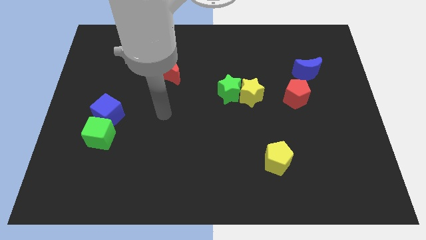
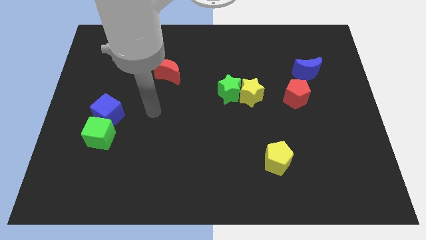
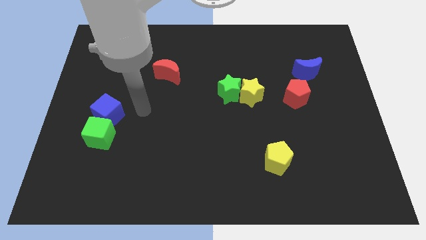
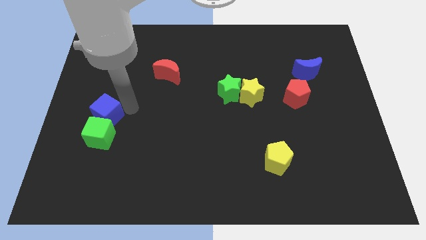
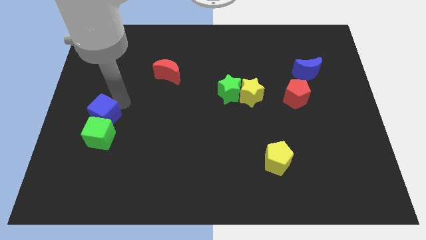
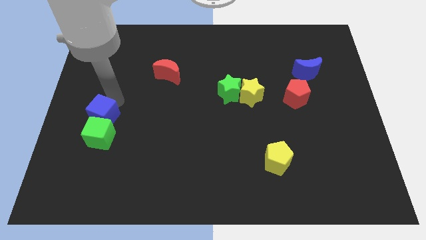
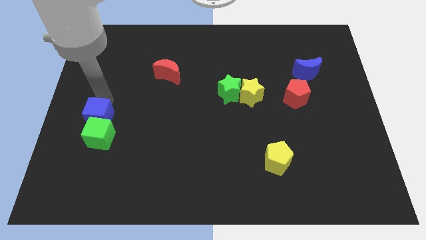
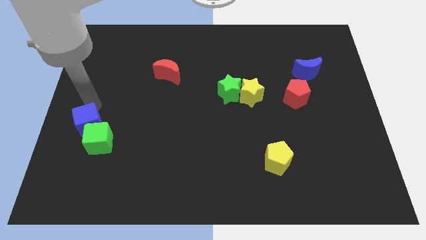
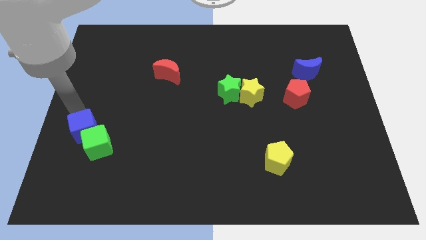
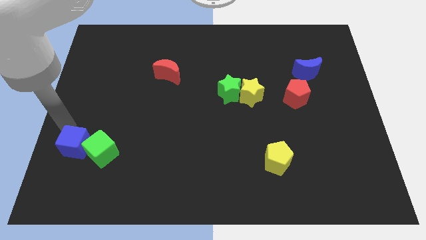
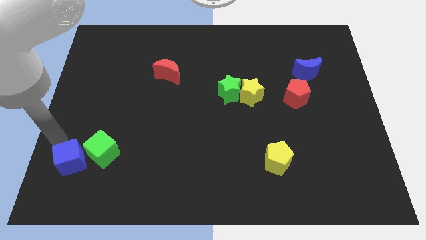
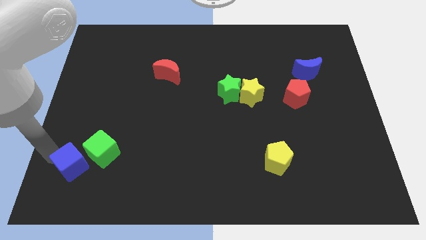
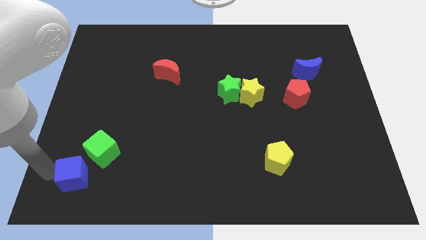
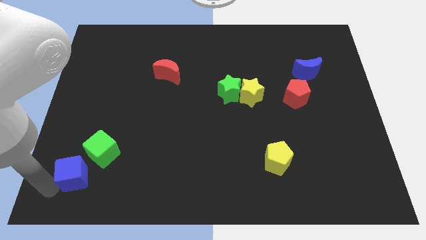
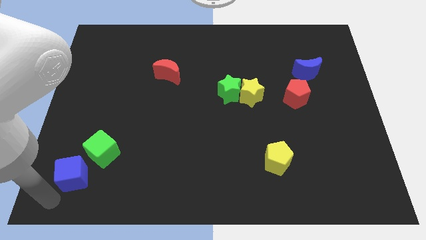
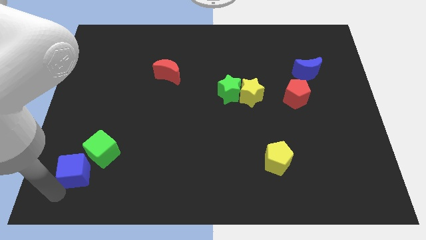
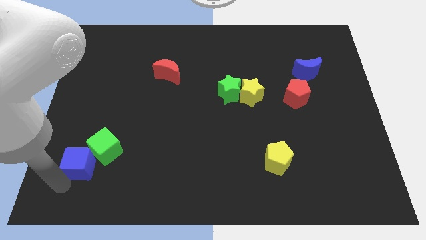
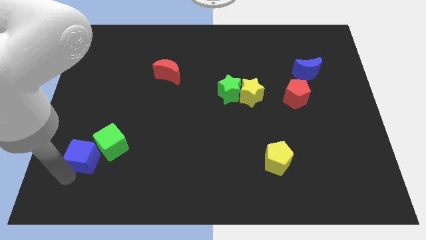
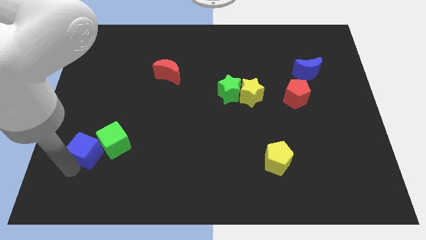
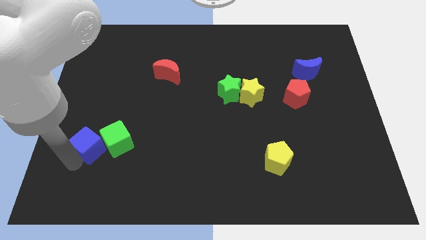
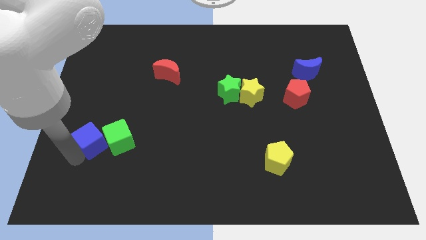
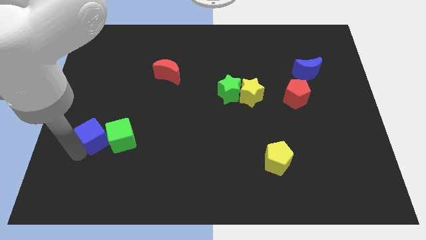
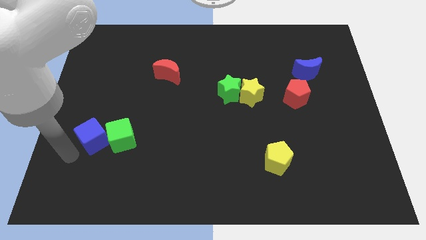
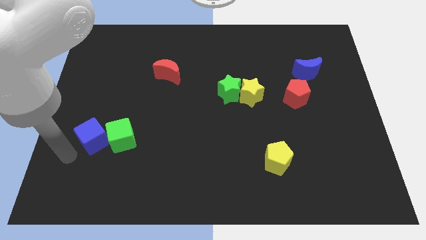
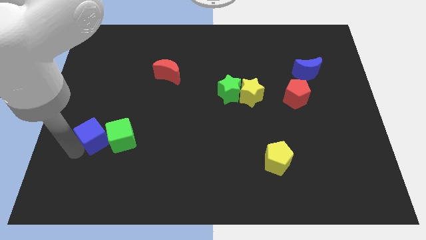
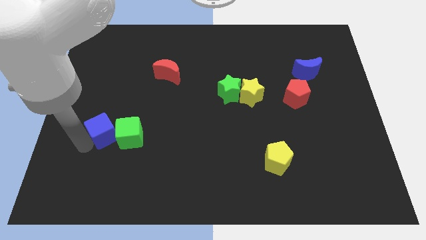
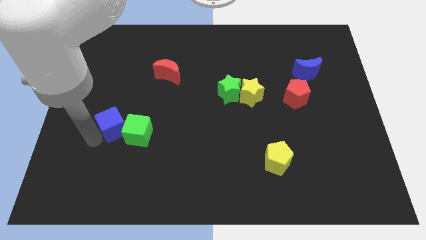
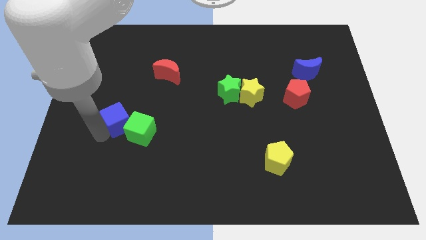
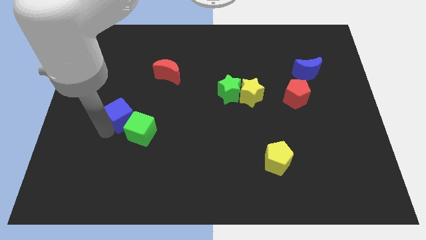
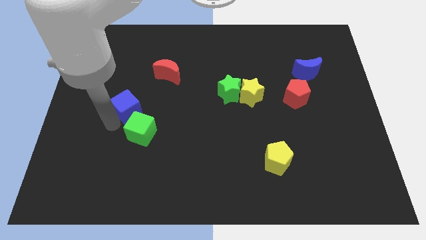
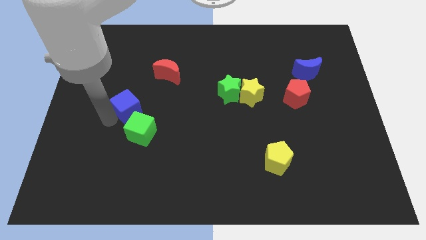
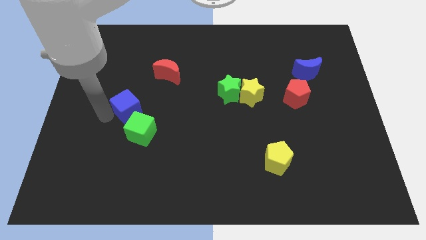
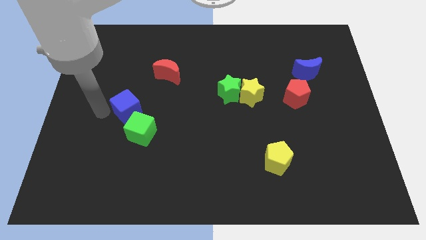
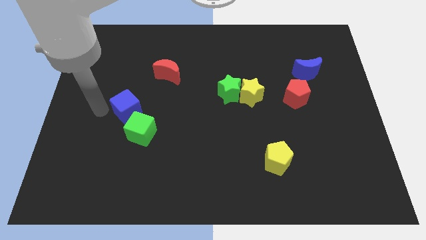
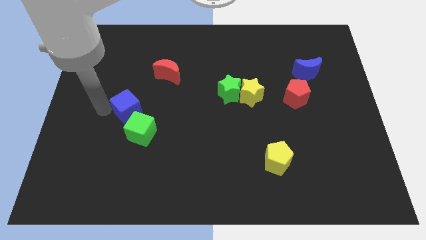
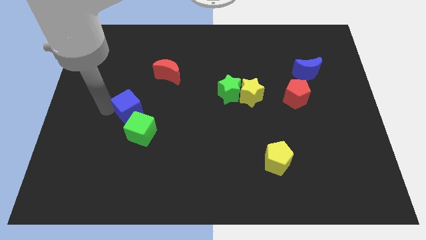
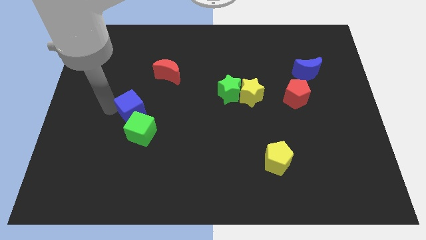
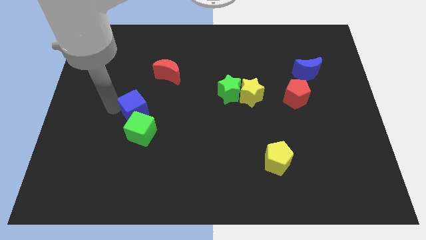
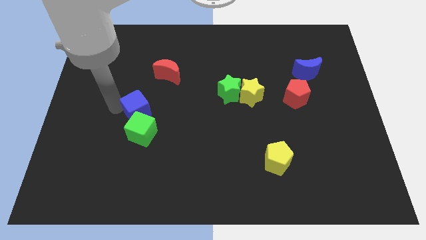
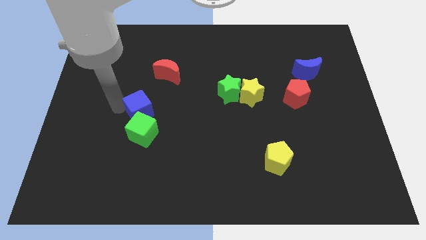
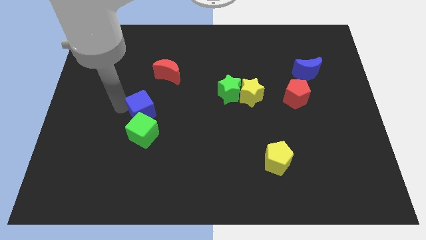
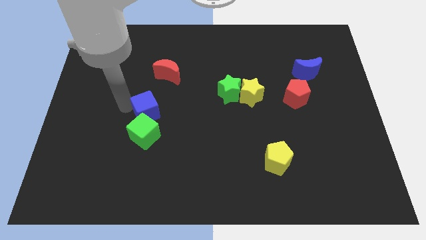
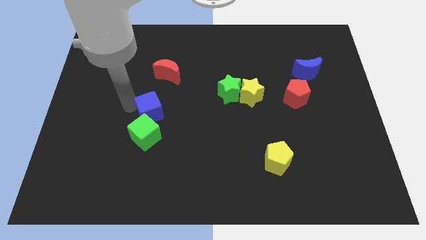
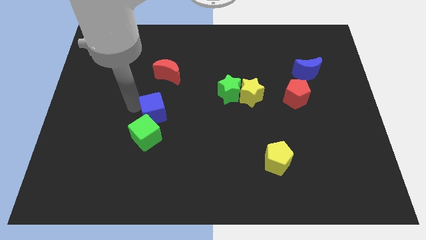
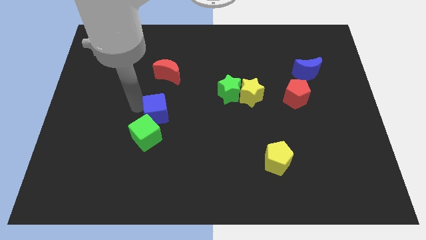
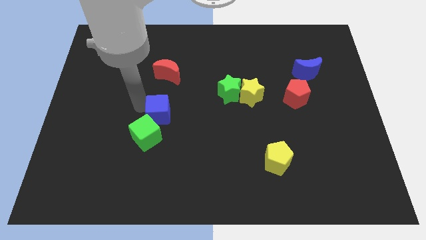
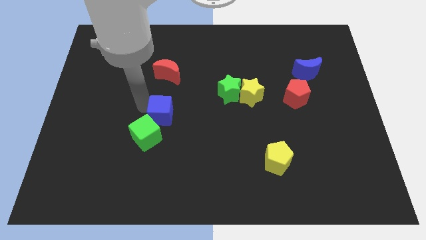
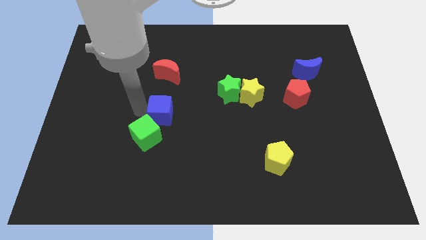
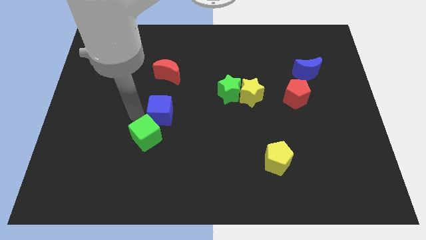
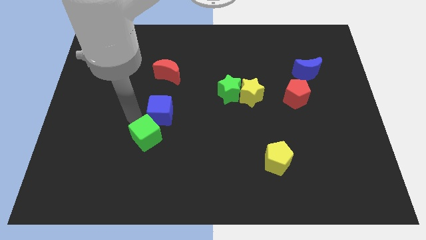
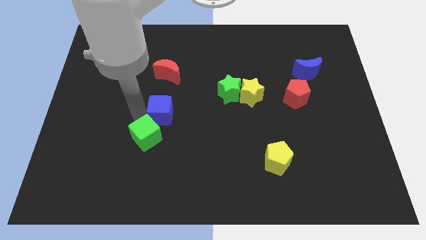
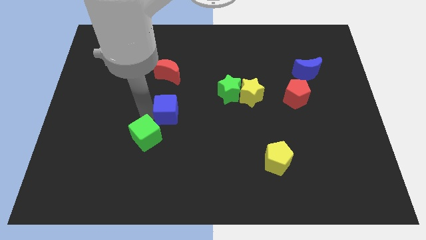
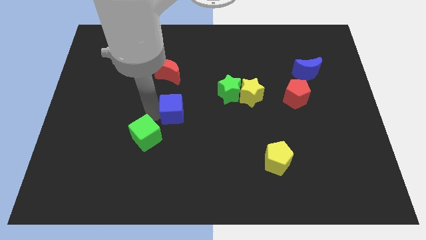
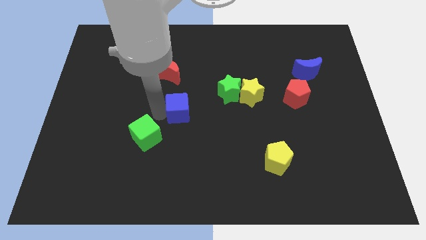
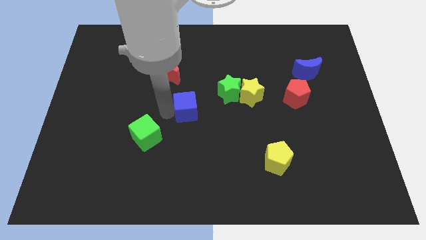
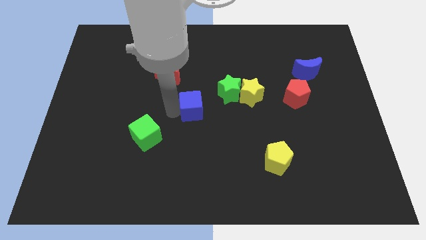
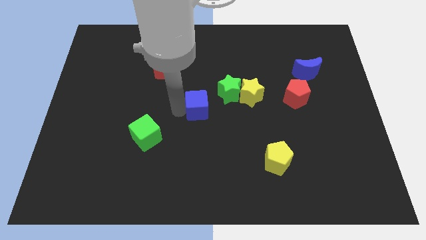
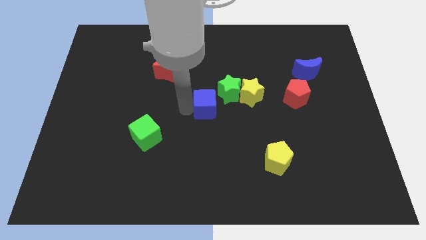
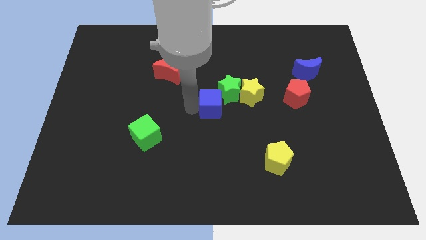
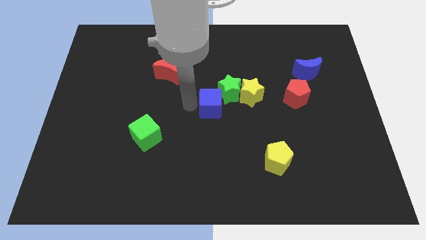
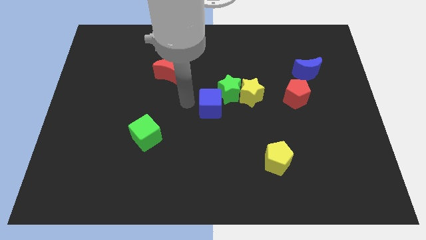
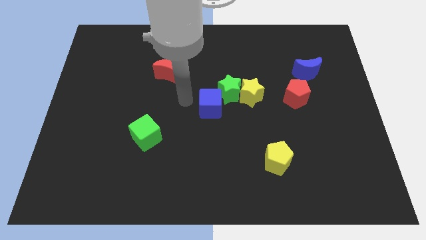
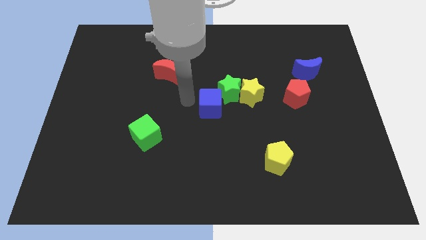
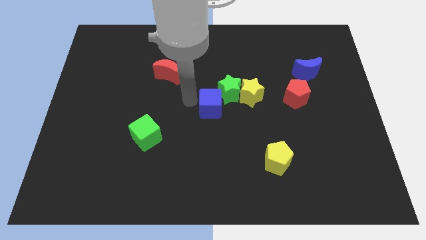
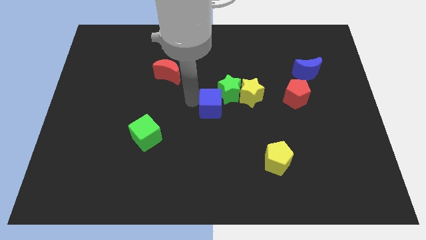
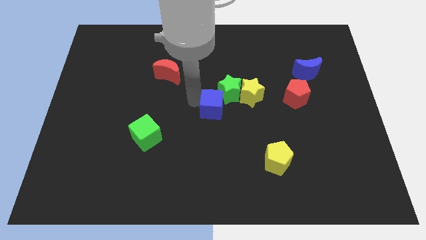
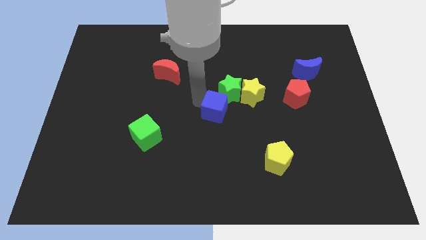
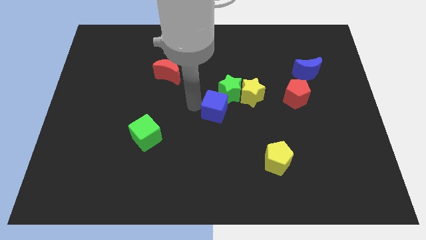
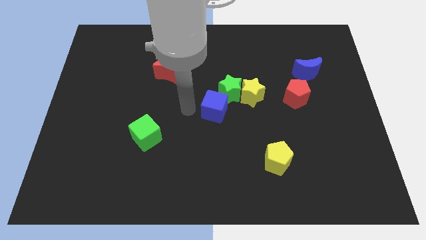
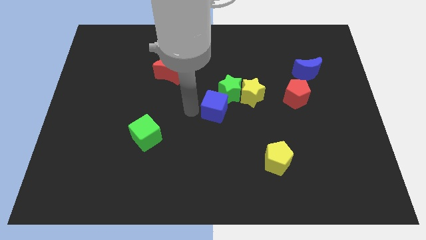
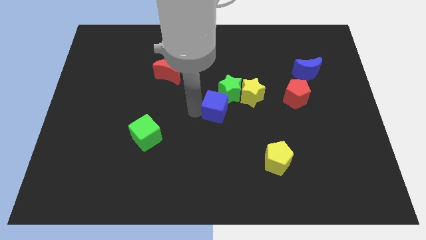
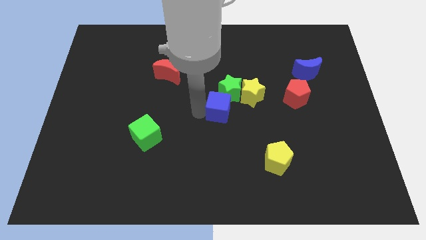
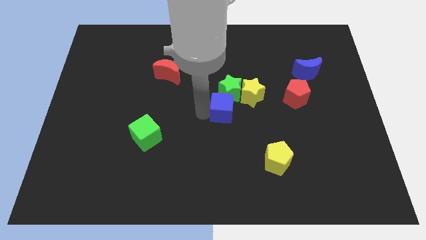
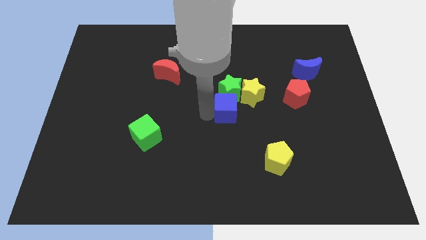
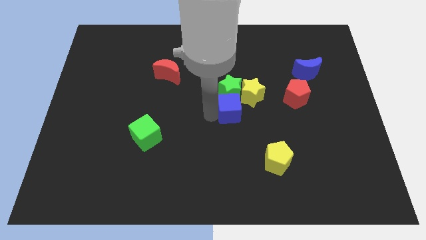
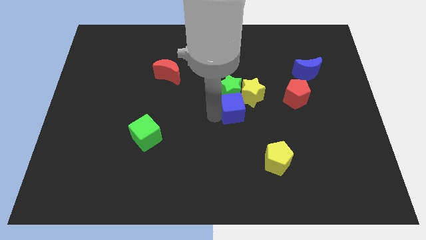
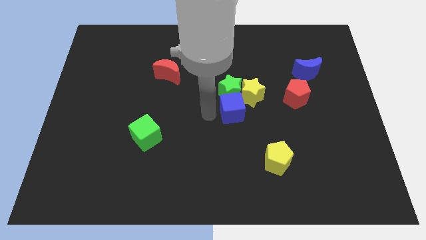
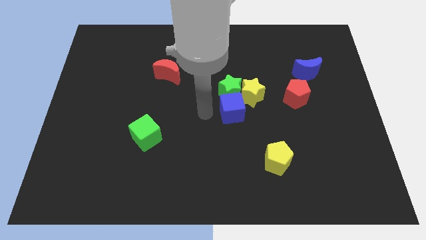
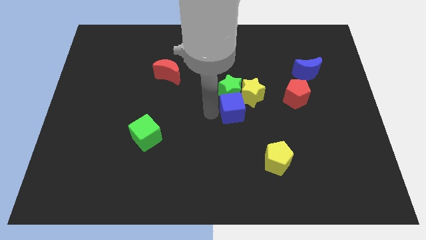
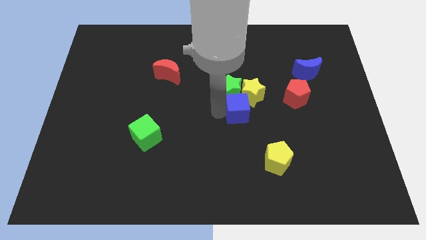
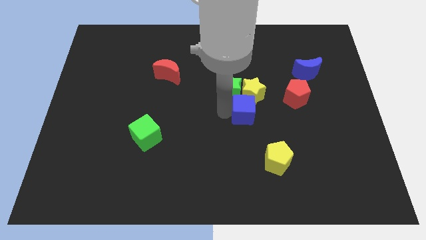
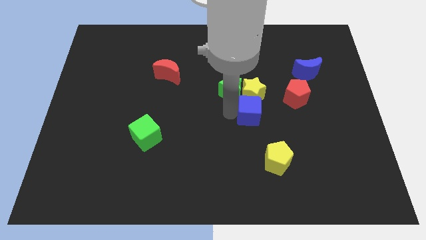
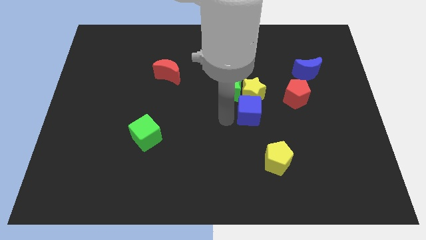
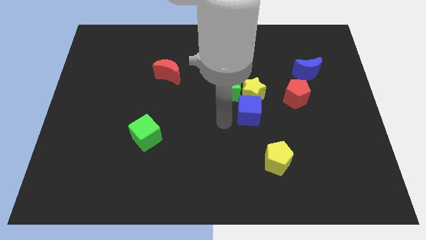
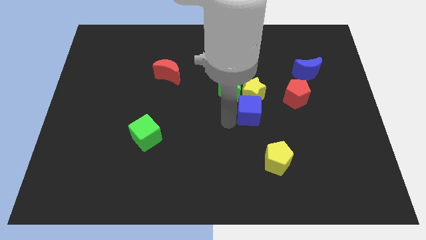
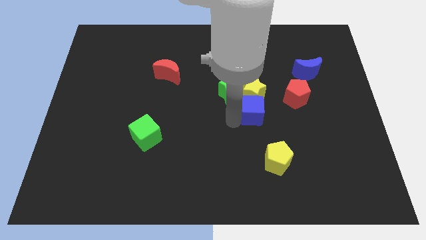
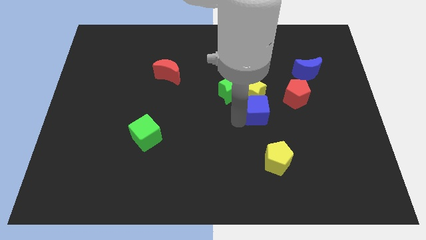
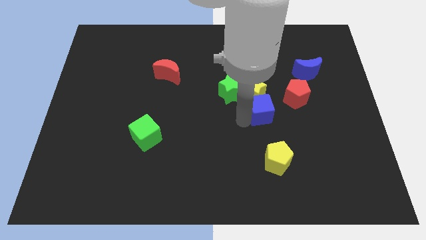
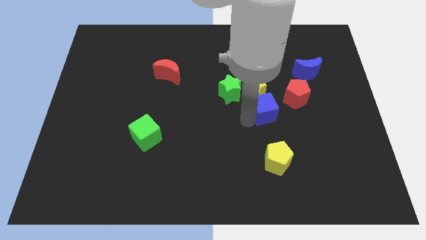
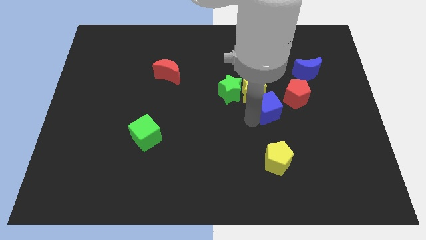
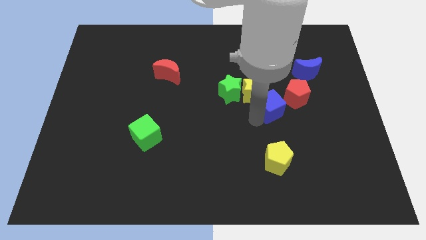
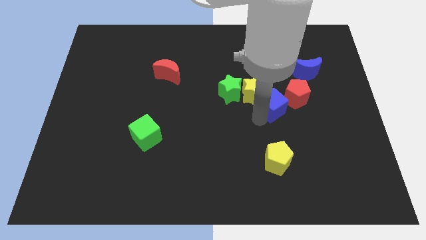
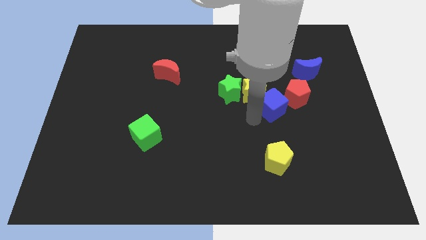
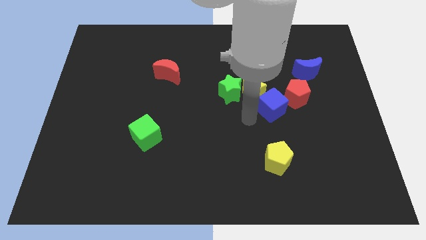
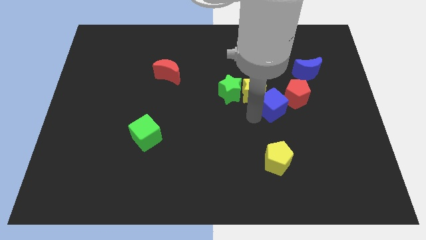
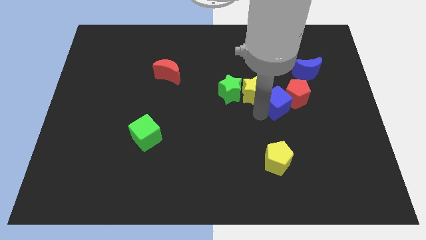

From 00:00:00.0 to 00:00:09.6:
put the blue cube to the red pentagon
